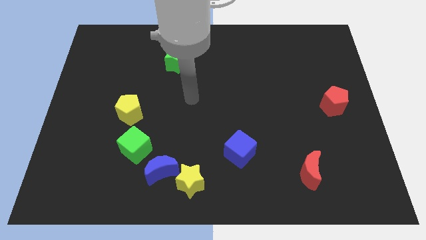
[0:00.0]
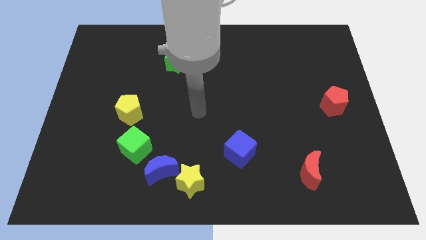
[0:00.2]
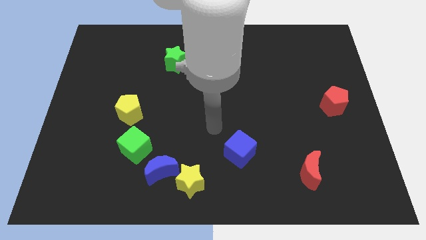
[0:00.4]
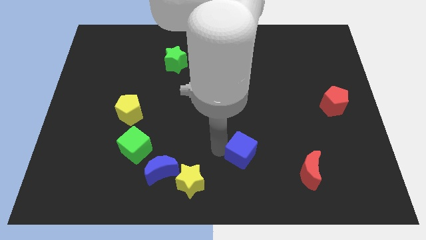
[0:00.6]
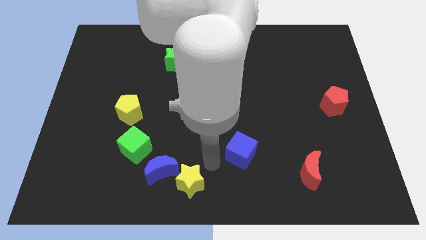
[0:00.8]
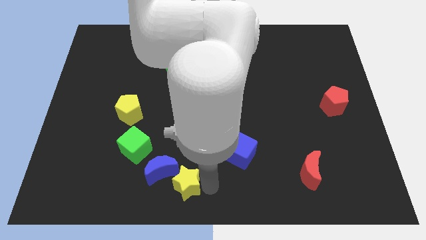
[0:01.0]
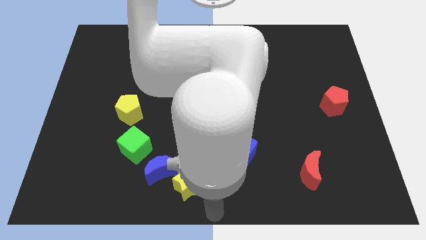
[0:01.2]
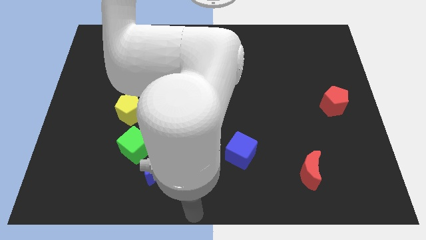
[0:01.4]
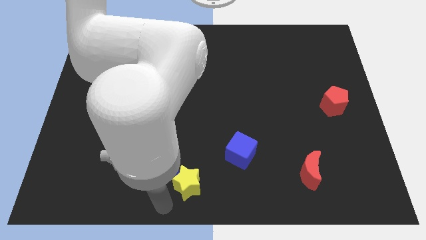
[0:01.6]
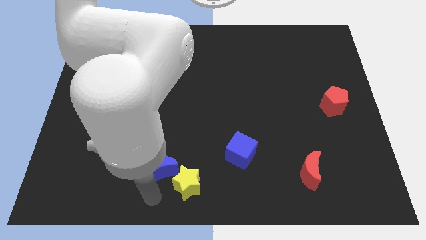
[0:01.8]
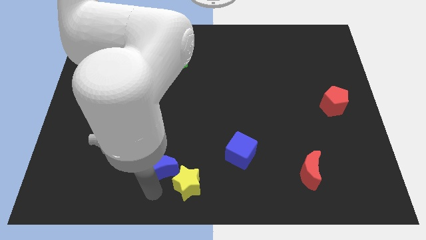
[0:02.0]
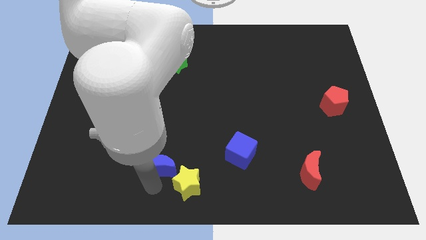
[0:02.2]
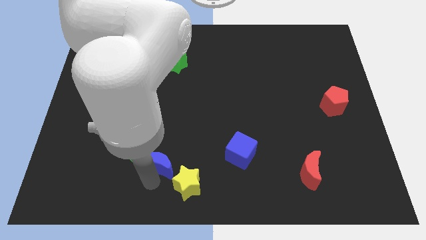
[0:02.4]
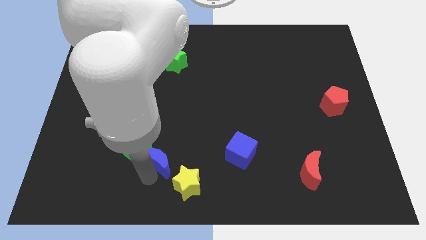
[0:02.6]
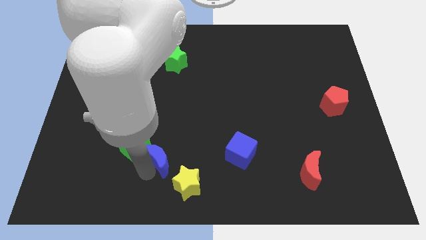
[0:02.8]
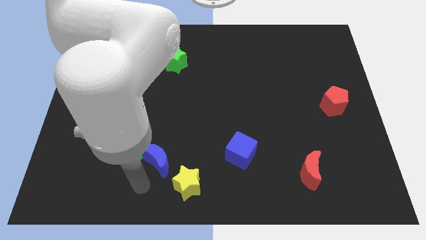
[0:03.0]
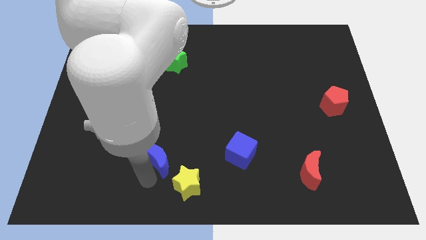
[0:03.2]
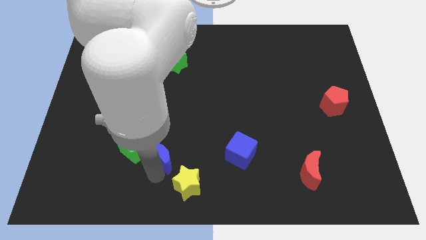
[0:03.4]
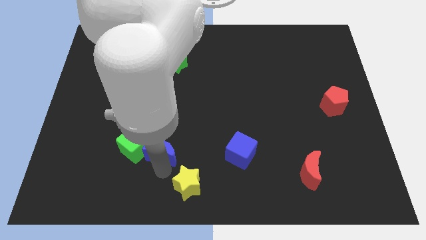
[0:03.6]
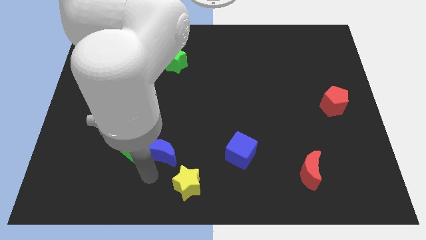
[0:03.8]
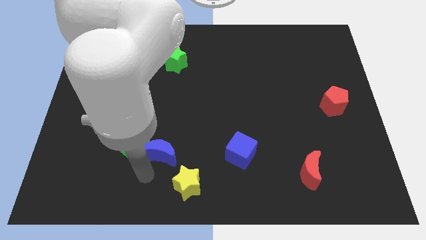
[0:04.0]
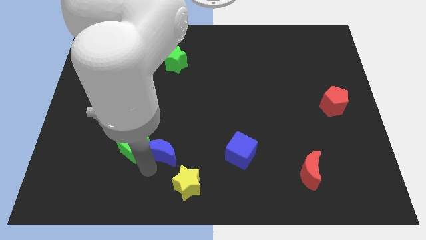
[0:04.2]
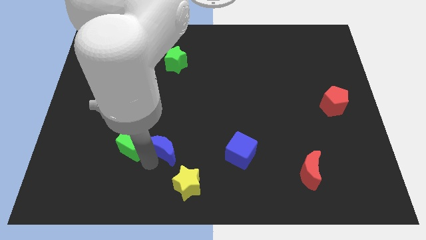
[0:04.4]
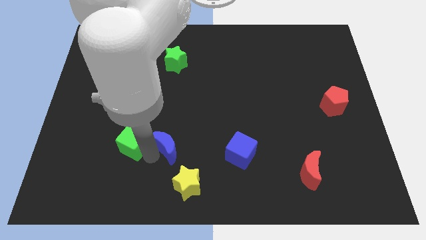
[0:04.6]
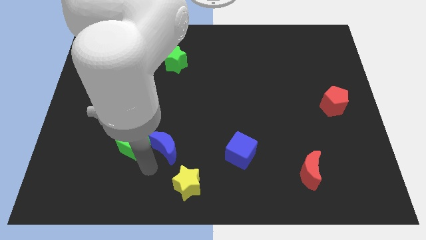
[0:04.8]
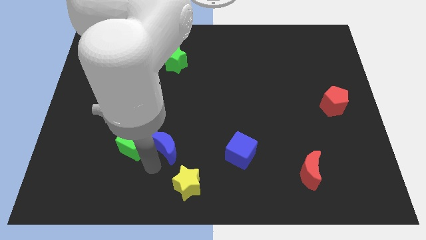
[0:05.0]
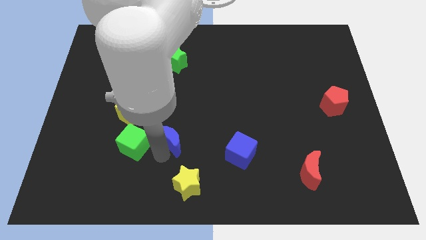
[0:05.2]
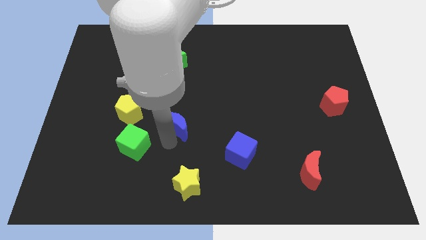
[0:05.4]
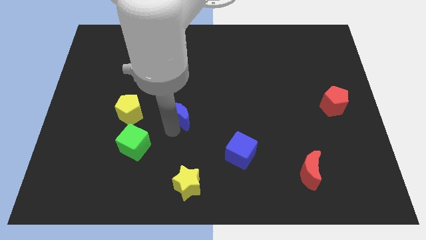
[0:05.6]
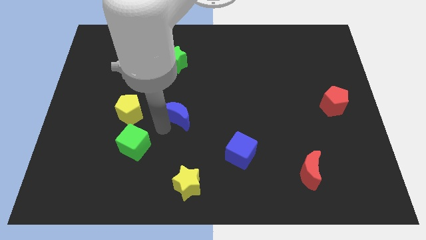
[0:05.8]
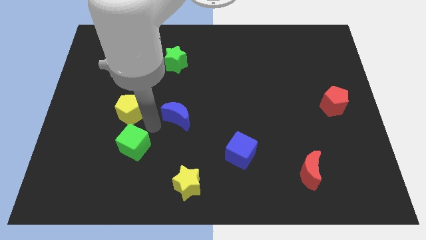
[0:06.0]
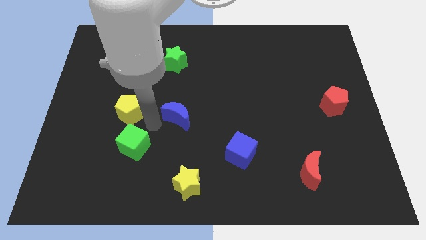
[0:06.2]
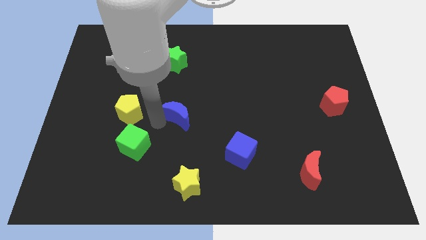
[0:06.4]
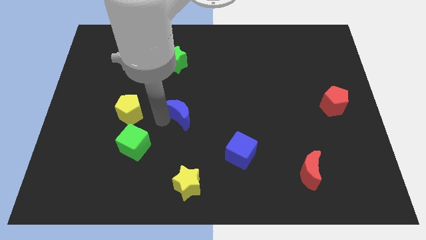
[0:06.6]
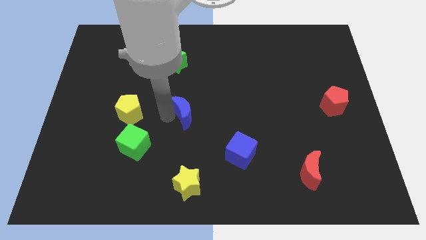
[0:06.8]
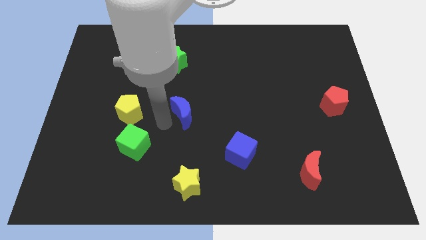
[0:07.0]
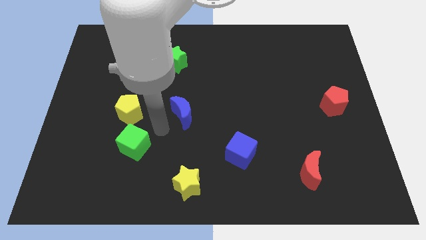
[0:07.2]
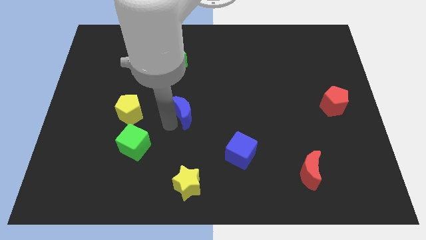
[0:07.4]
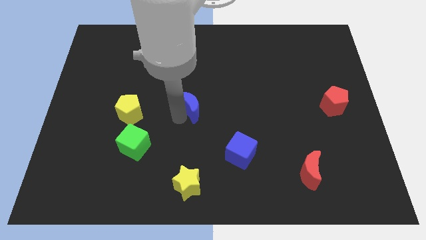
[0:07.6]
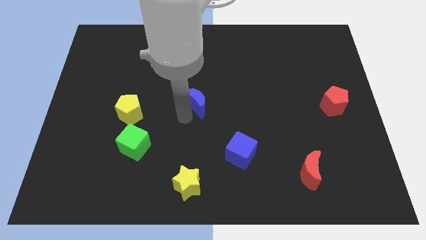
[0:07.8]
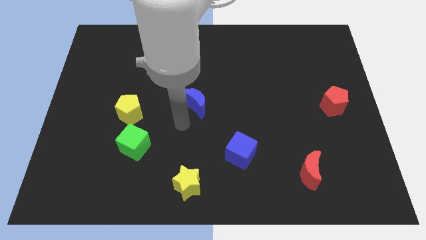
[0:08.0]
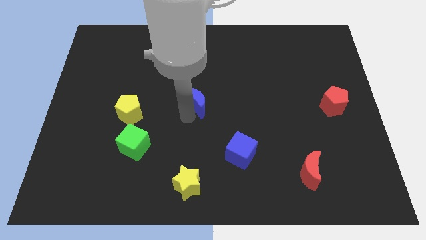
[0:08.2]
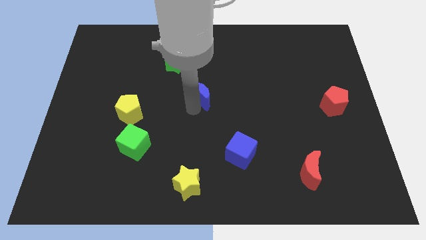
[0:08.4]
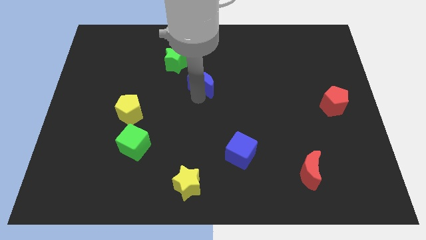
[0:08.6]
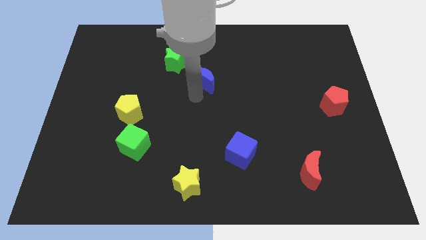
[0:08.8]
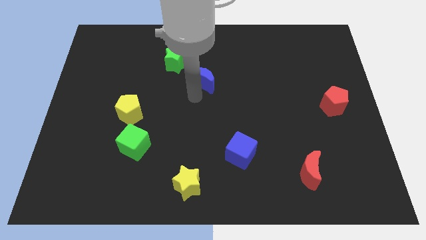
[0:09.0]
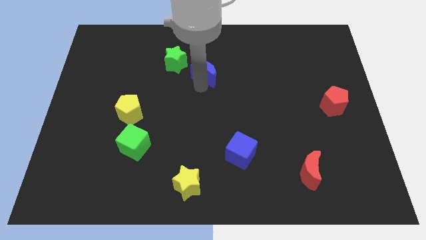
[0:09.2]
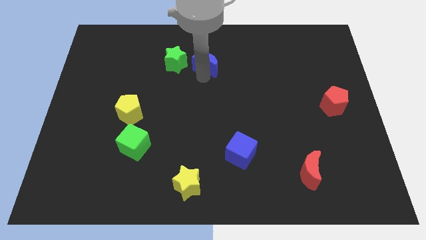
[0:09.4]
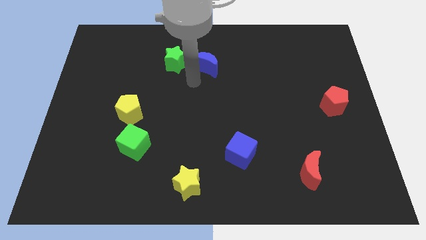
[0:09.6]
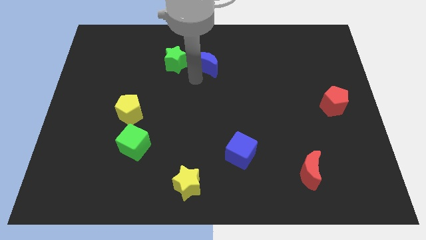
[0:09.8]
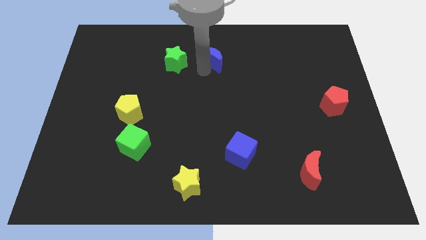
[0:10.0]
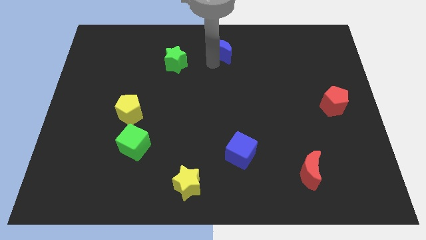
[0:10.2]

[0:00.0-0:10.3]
push the blue moon to the towards your base

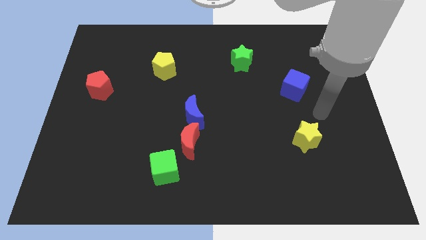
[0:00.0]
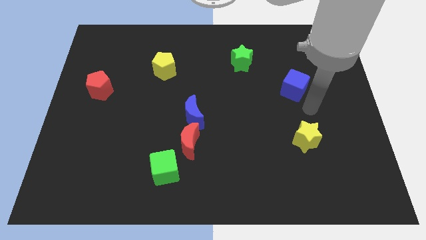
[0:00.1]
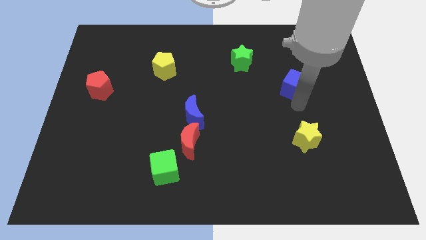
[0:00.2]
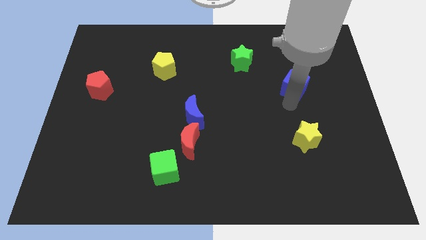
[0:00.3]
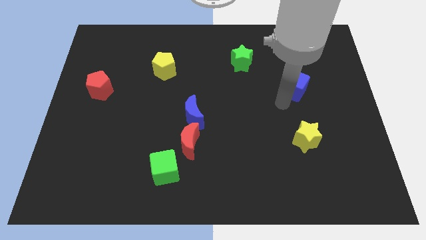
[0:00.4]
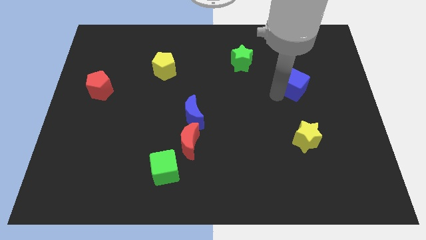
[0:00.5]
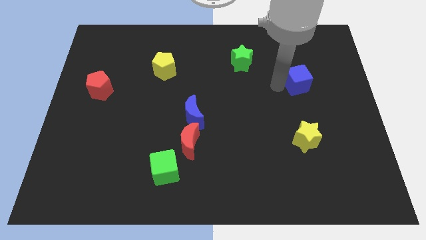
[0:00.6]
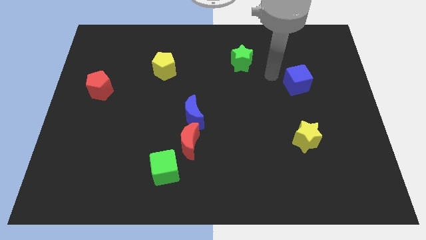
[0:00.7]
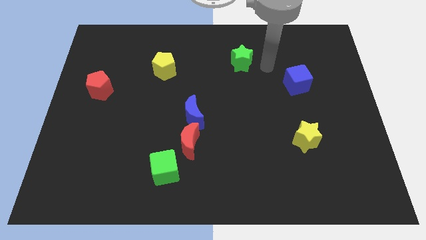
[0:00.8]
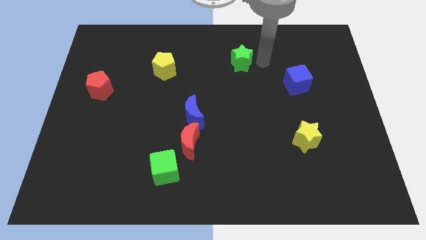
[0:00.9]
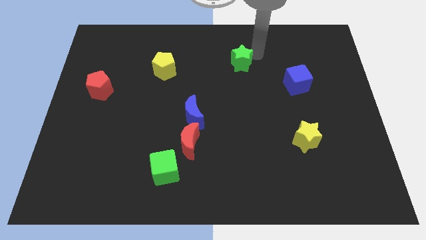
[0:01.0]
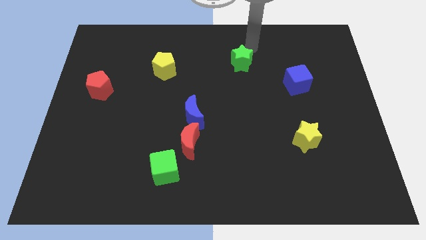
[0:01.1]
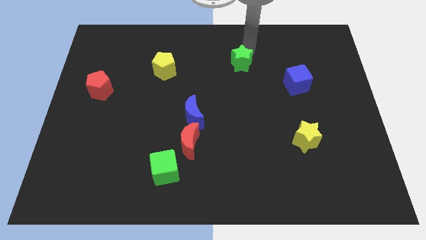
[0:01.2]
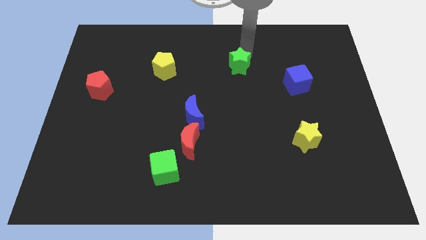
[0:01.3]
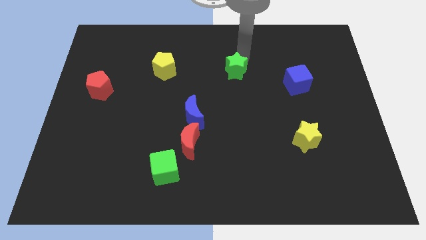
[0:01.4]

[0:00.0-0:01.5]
move the green star to the middle
